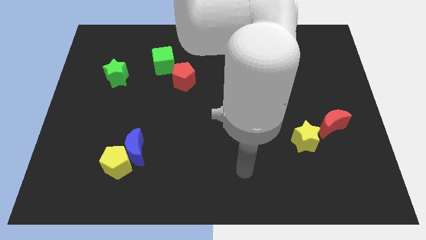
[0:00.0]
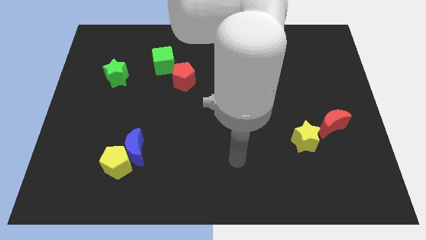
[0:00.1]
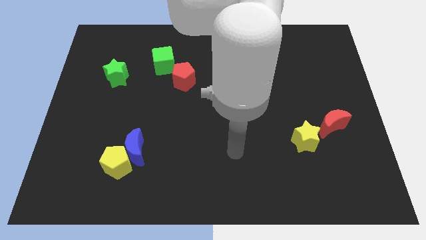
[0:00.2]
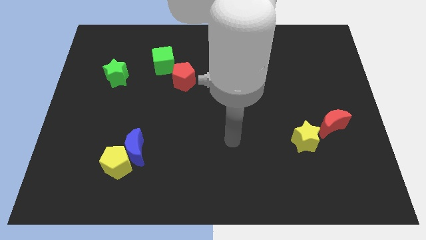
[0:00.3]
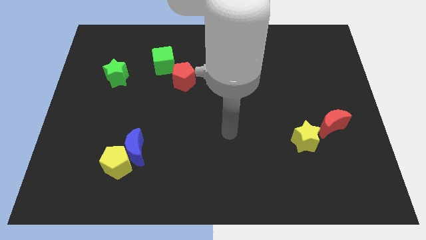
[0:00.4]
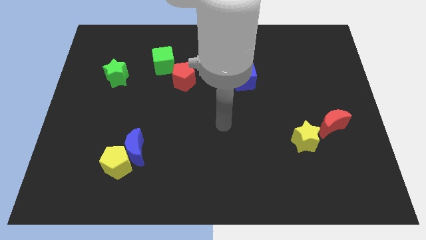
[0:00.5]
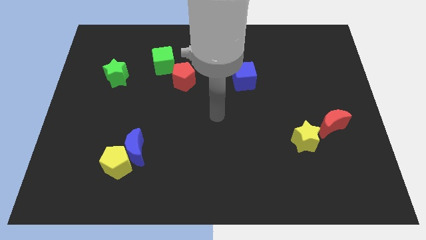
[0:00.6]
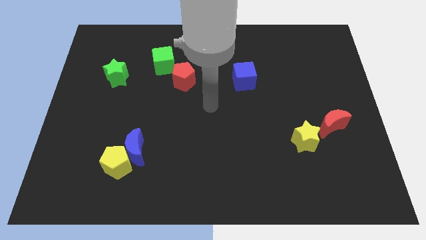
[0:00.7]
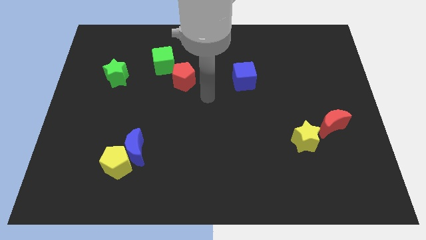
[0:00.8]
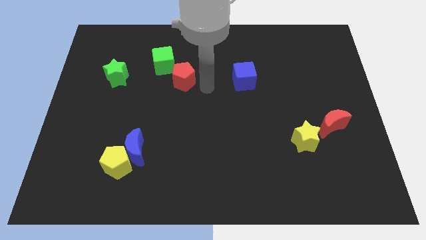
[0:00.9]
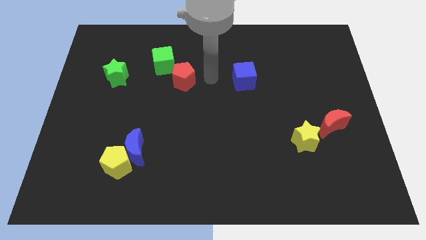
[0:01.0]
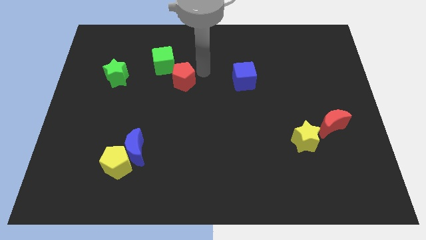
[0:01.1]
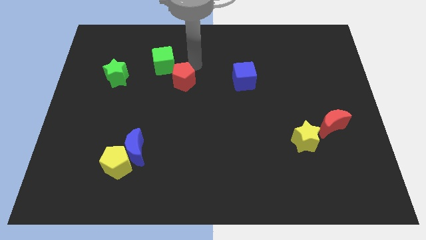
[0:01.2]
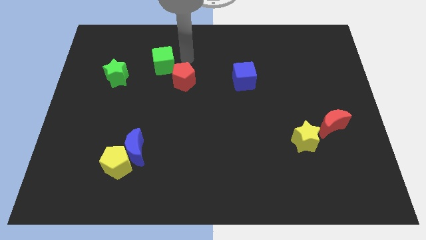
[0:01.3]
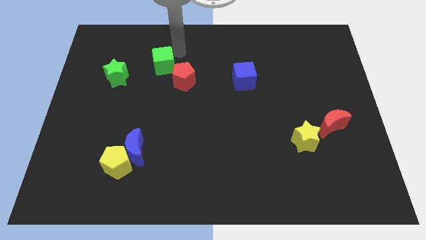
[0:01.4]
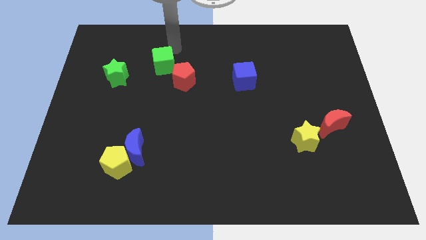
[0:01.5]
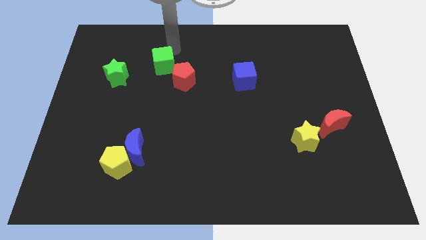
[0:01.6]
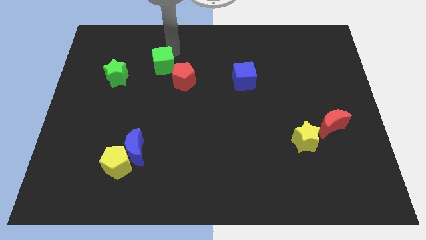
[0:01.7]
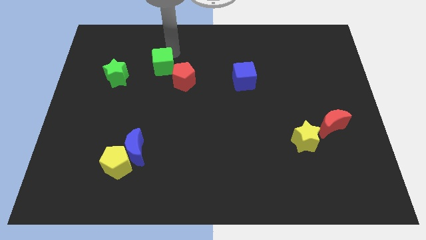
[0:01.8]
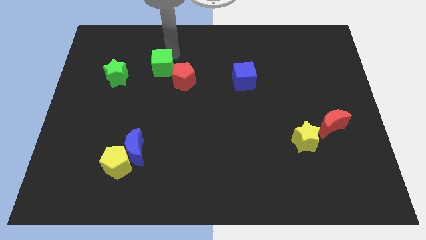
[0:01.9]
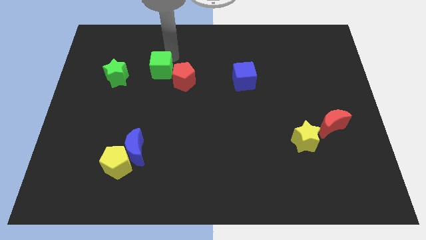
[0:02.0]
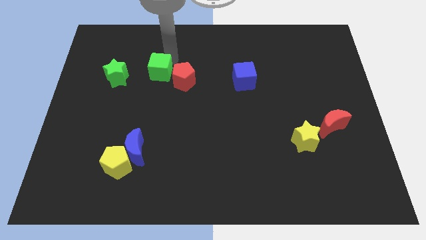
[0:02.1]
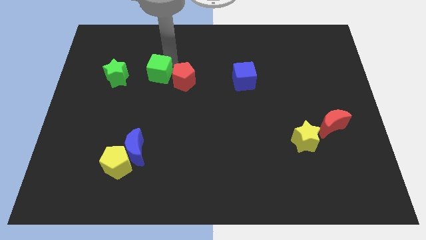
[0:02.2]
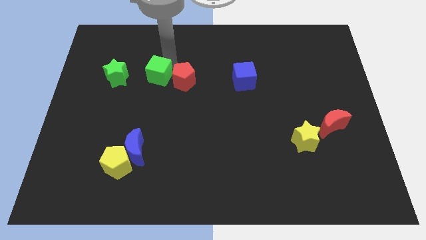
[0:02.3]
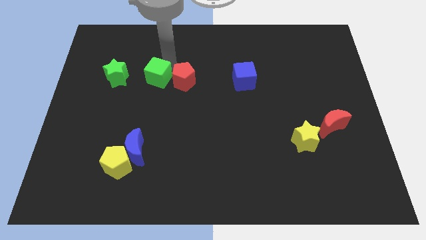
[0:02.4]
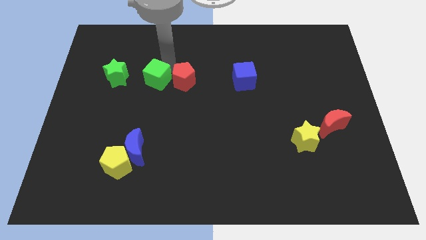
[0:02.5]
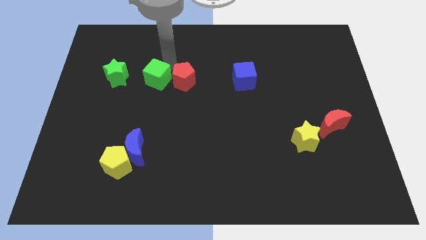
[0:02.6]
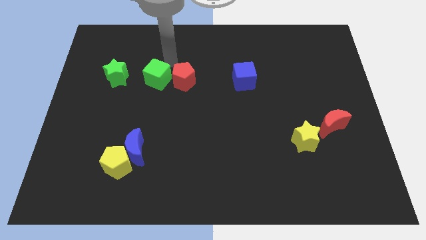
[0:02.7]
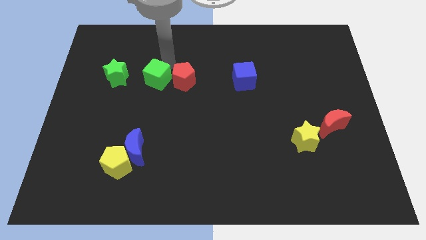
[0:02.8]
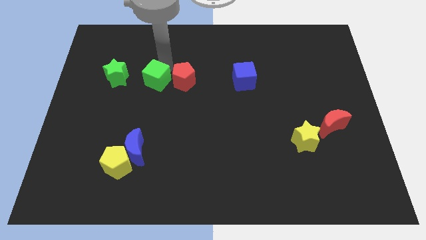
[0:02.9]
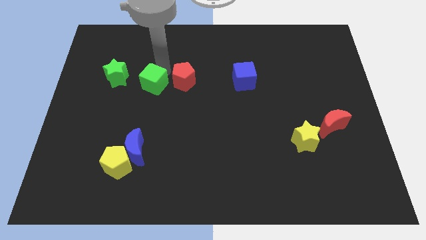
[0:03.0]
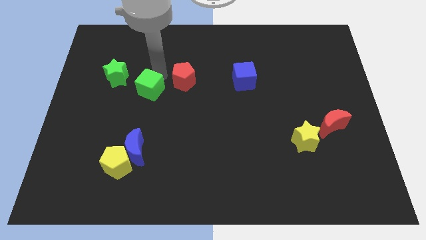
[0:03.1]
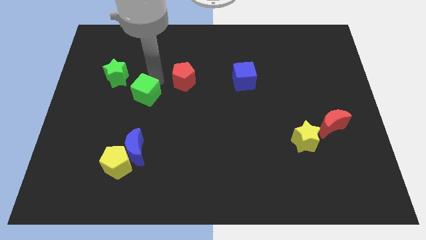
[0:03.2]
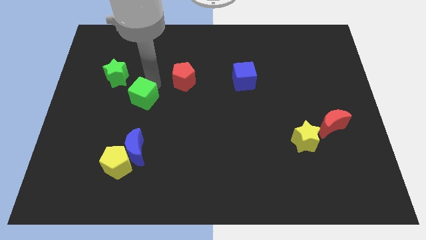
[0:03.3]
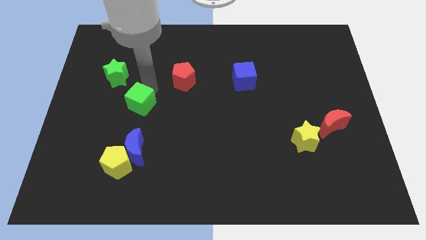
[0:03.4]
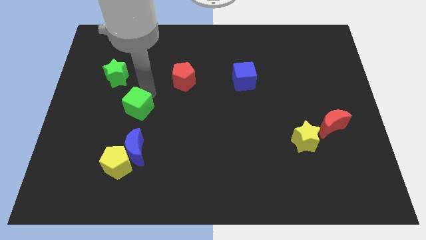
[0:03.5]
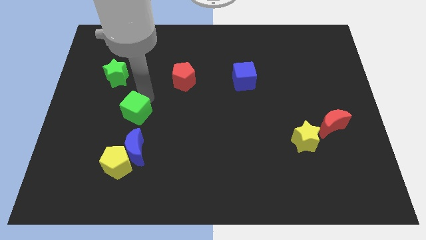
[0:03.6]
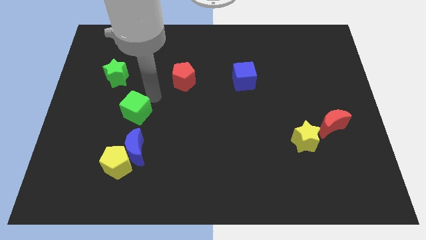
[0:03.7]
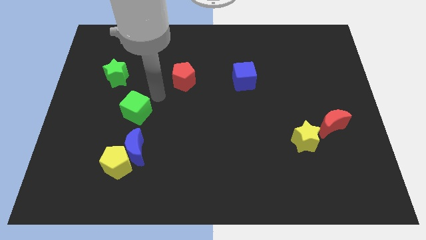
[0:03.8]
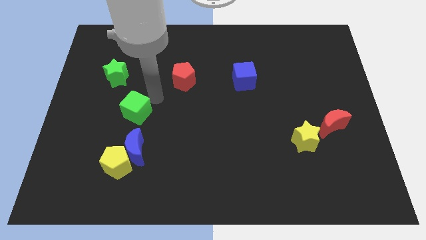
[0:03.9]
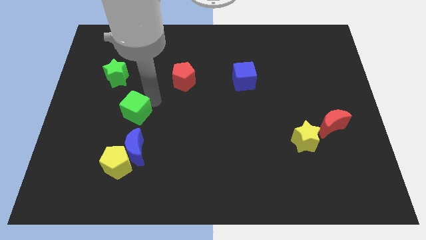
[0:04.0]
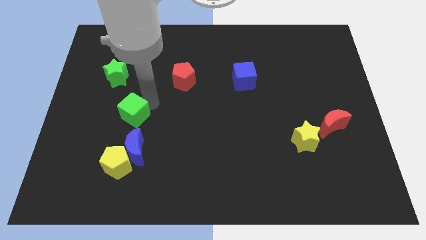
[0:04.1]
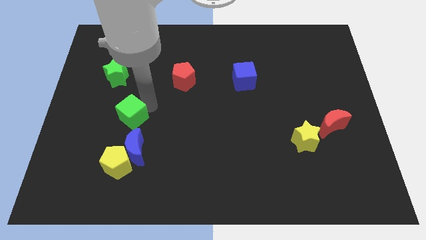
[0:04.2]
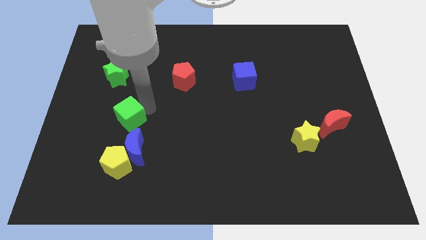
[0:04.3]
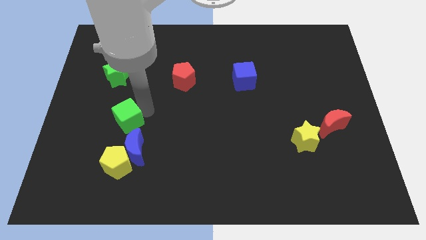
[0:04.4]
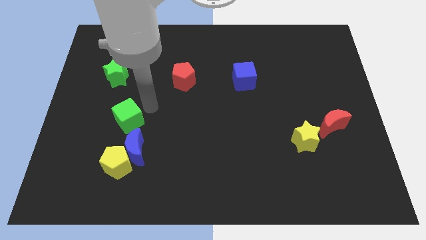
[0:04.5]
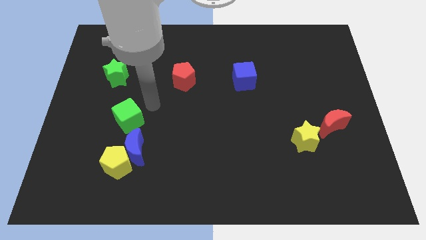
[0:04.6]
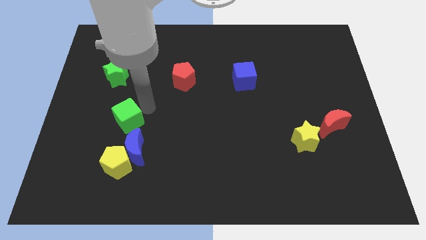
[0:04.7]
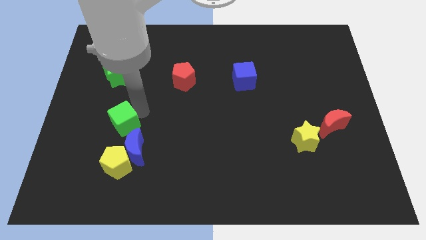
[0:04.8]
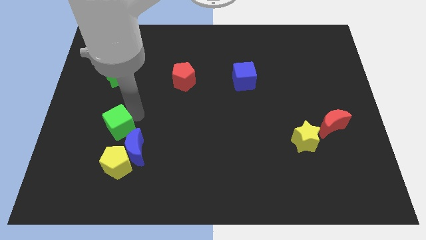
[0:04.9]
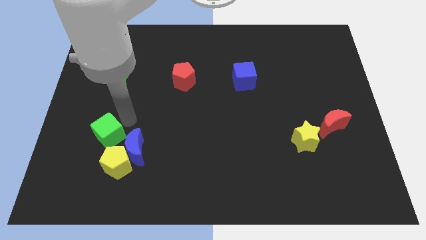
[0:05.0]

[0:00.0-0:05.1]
slide the green cube to the left of the blue moon

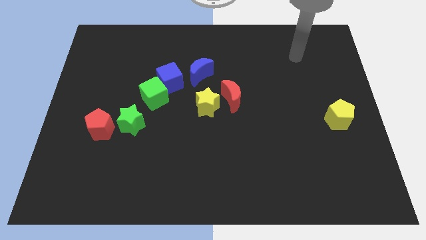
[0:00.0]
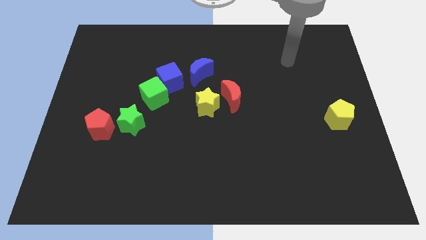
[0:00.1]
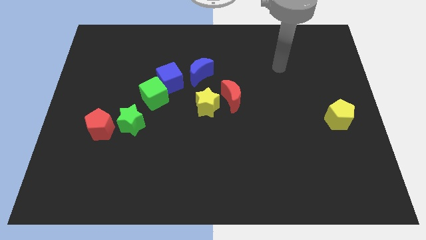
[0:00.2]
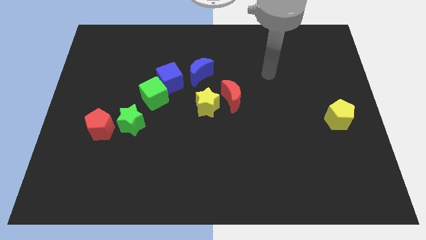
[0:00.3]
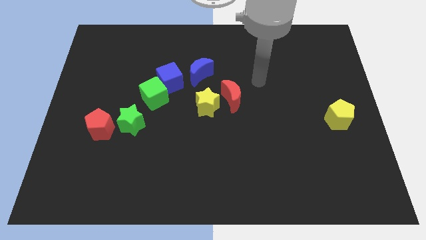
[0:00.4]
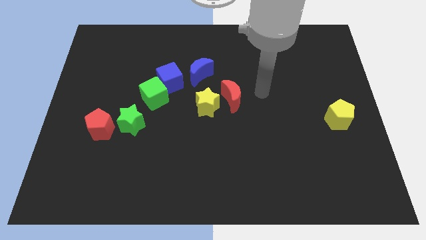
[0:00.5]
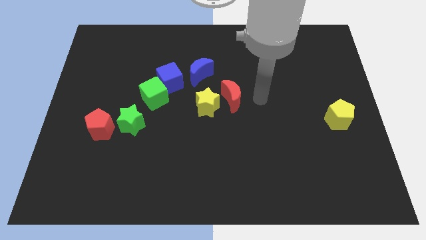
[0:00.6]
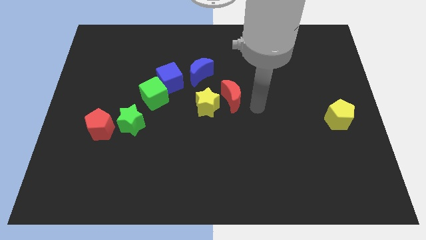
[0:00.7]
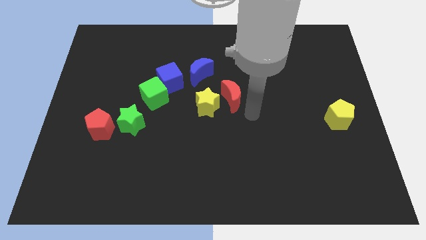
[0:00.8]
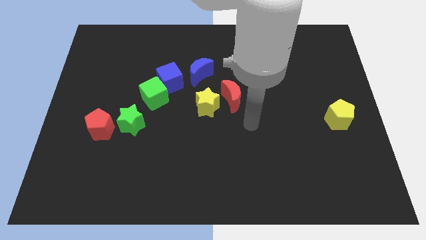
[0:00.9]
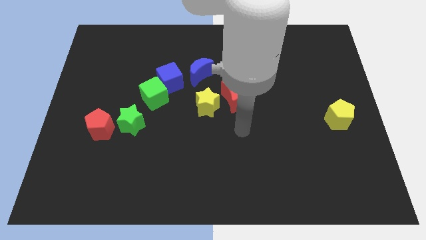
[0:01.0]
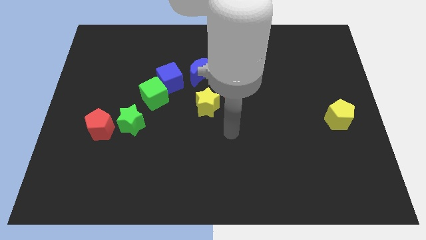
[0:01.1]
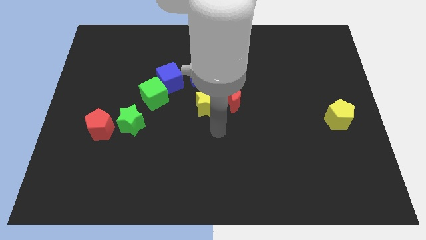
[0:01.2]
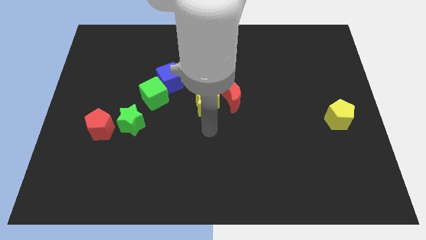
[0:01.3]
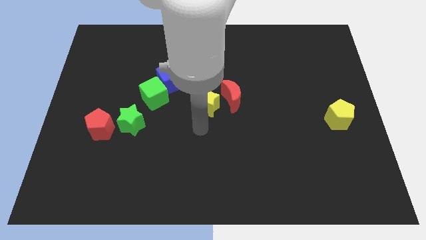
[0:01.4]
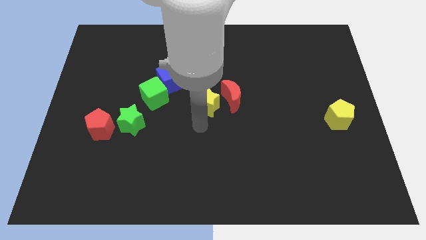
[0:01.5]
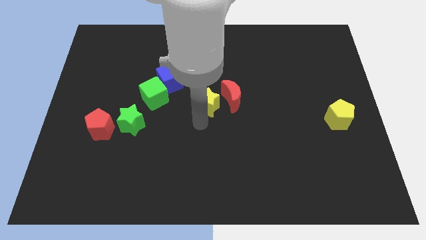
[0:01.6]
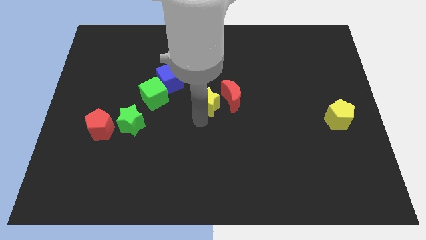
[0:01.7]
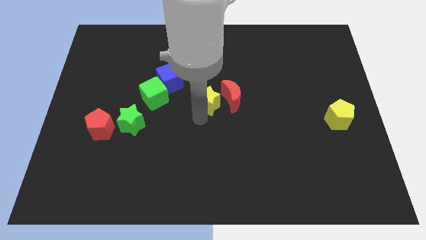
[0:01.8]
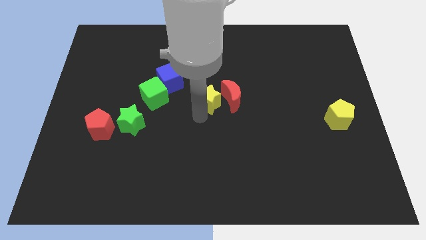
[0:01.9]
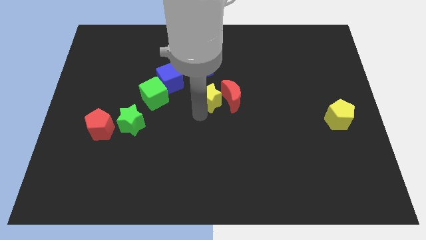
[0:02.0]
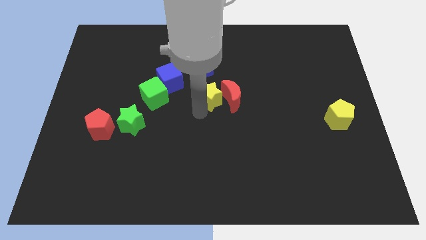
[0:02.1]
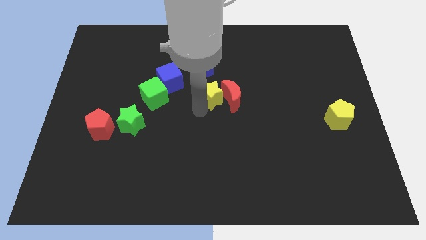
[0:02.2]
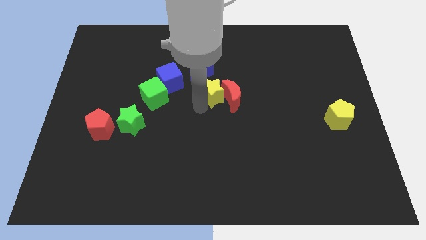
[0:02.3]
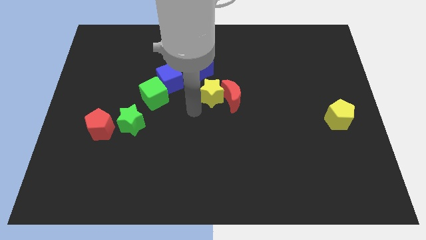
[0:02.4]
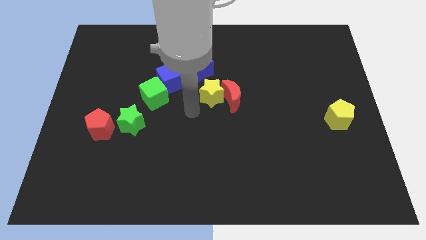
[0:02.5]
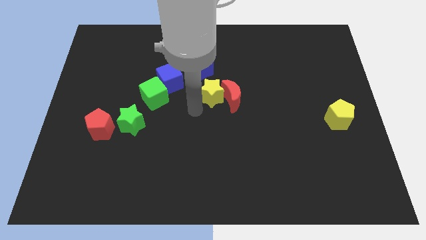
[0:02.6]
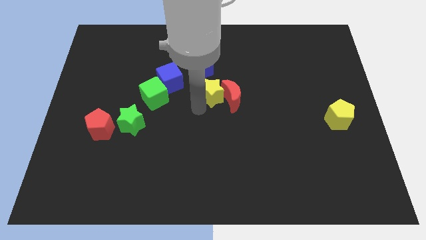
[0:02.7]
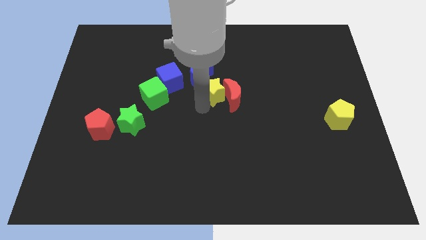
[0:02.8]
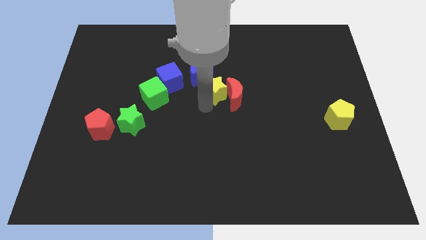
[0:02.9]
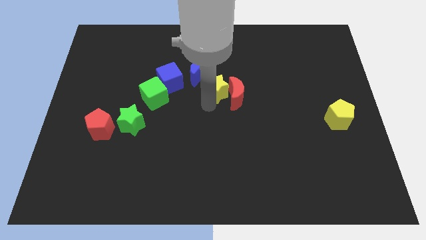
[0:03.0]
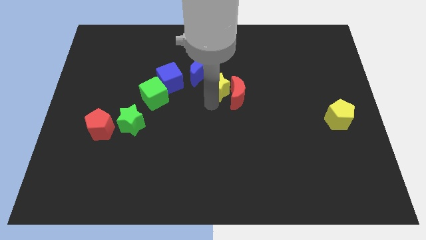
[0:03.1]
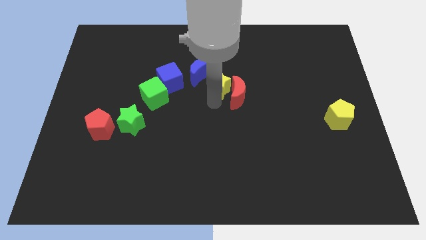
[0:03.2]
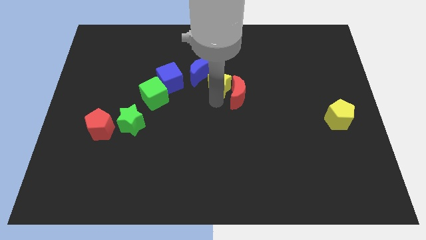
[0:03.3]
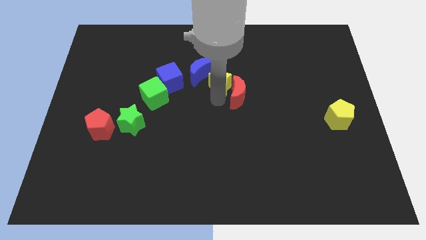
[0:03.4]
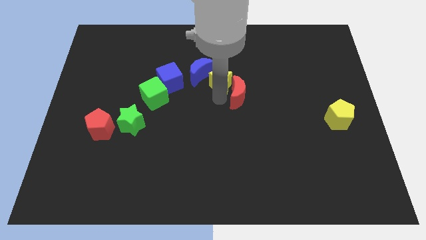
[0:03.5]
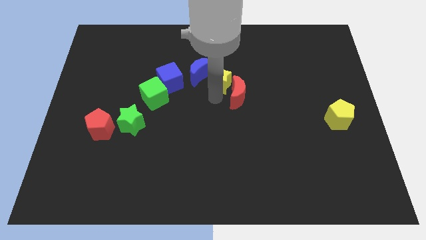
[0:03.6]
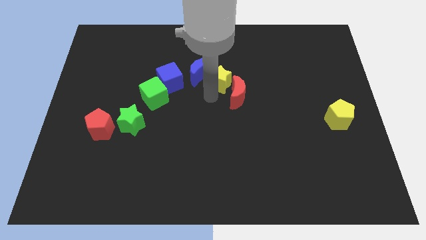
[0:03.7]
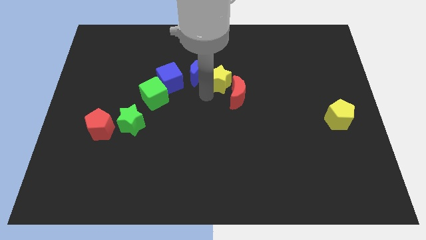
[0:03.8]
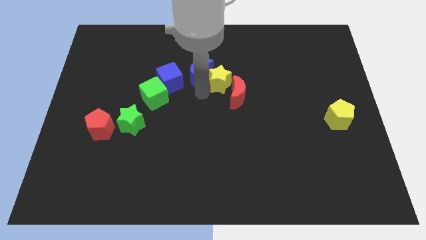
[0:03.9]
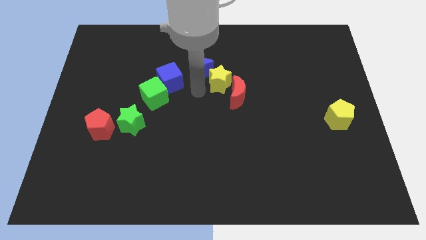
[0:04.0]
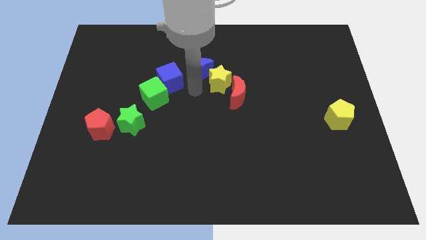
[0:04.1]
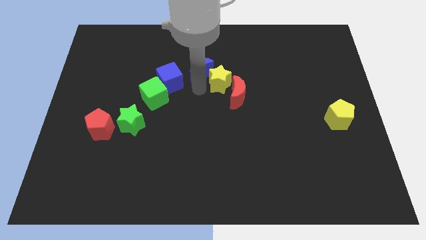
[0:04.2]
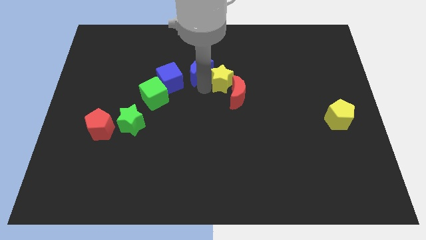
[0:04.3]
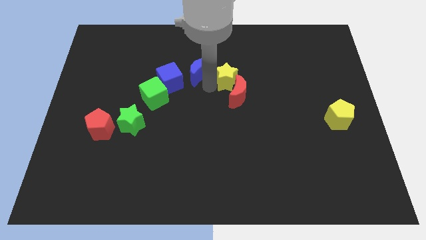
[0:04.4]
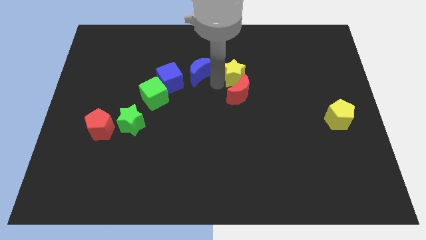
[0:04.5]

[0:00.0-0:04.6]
put the yellow star to the top right side of the red moon
